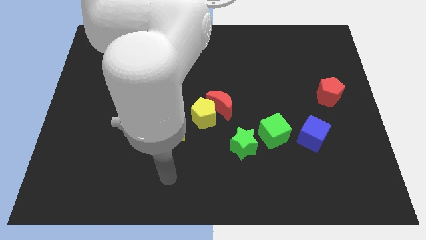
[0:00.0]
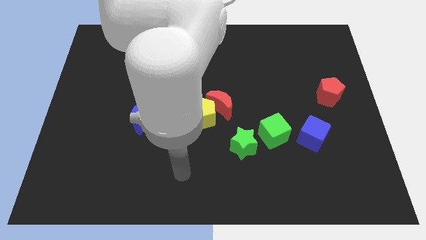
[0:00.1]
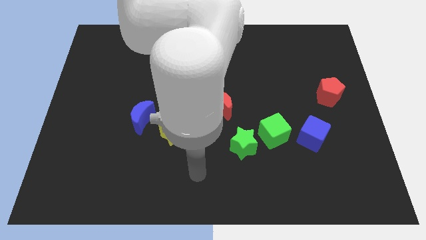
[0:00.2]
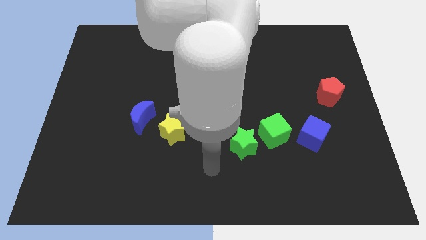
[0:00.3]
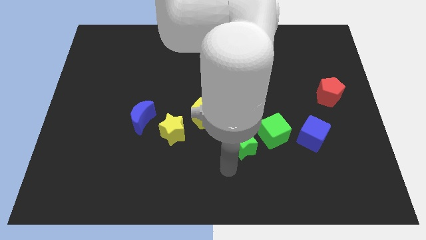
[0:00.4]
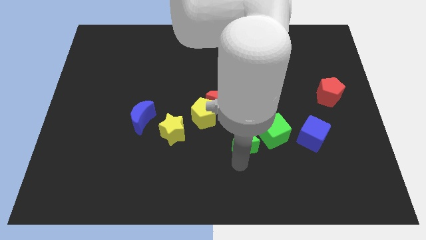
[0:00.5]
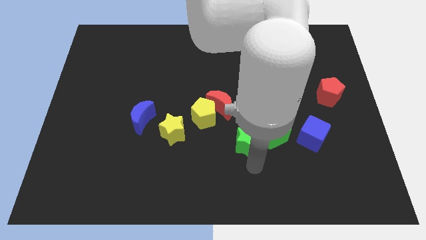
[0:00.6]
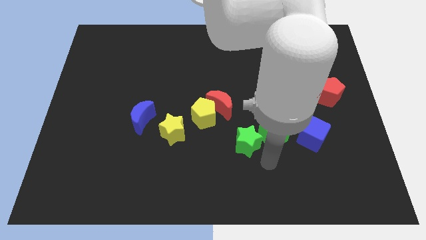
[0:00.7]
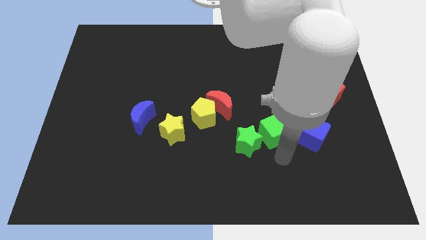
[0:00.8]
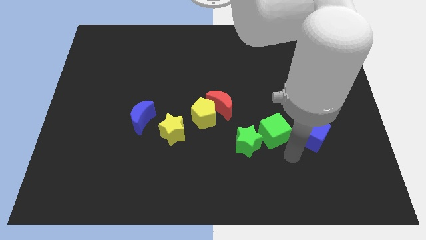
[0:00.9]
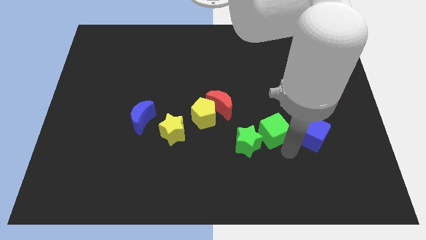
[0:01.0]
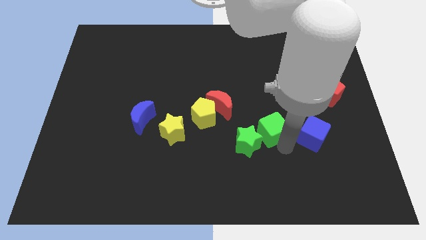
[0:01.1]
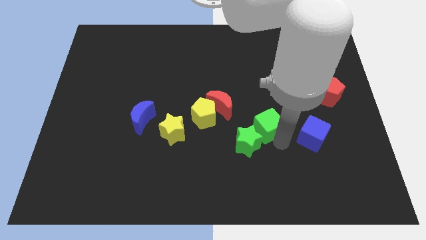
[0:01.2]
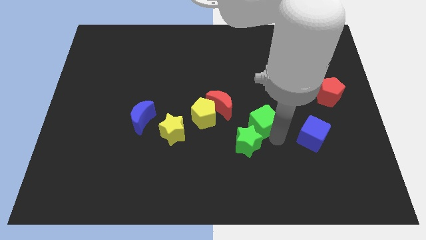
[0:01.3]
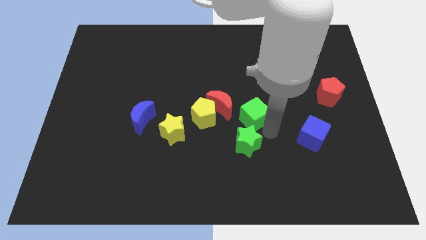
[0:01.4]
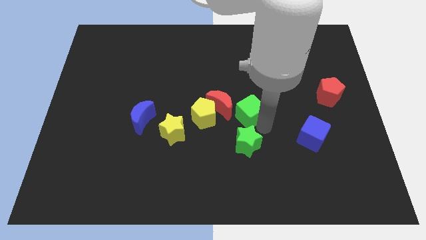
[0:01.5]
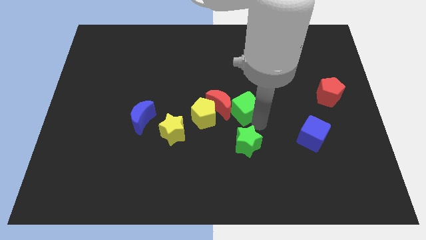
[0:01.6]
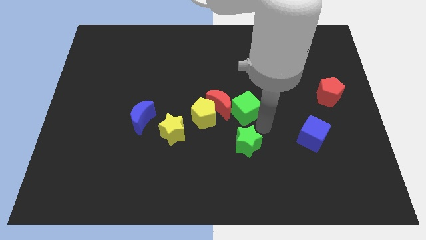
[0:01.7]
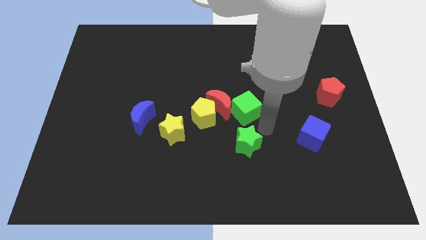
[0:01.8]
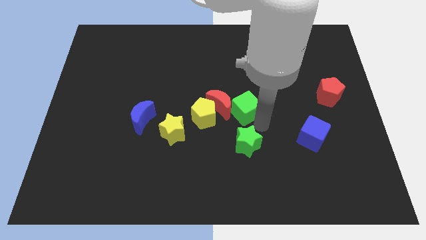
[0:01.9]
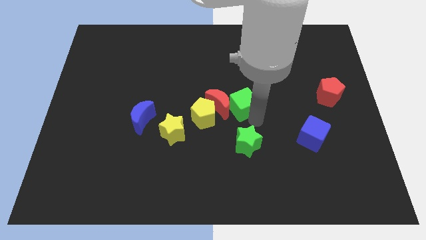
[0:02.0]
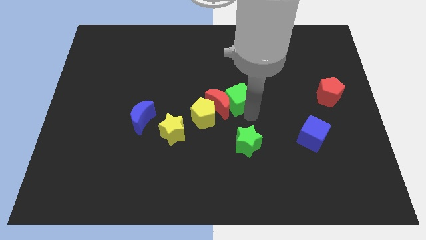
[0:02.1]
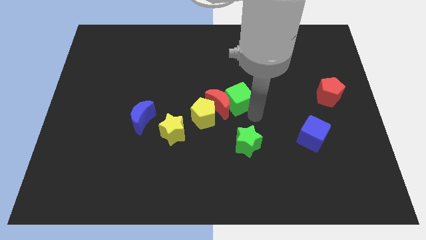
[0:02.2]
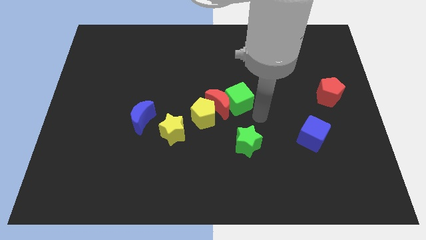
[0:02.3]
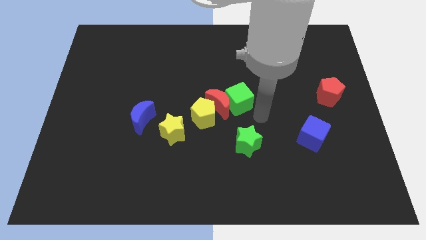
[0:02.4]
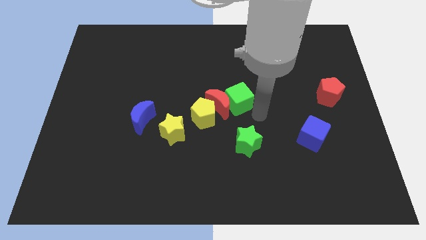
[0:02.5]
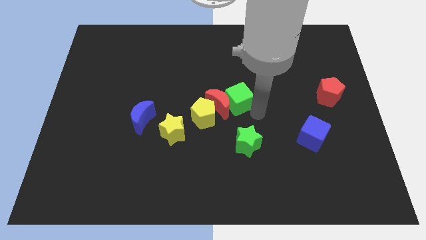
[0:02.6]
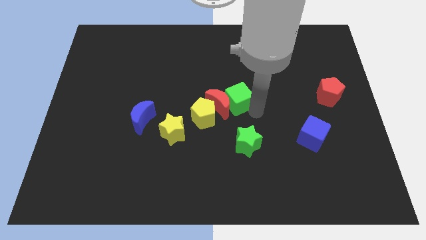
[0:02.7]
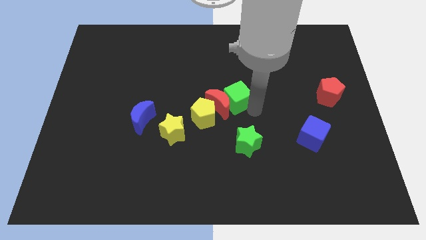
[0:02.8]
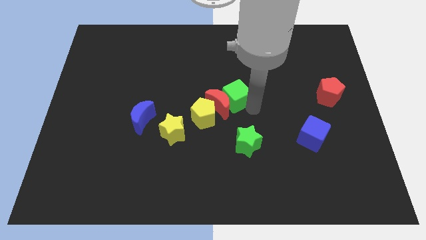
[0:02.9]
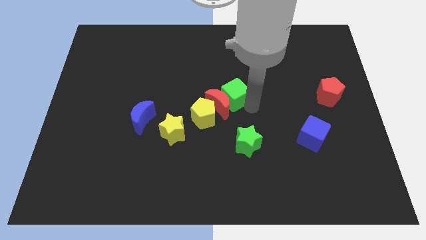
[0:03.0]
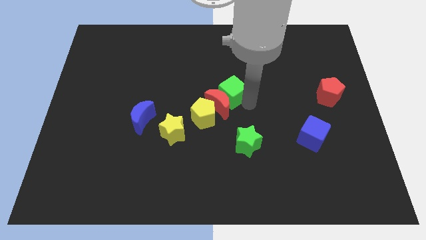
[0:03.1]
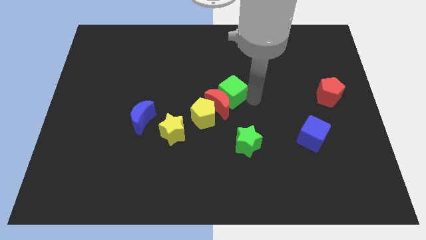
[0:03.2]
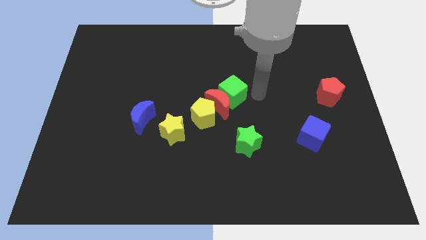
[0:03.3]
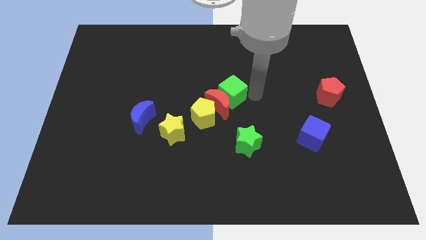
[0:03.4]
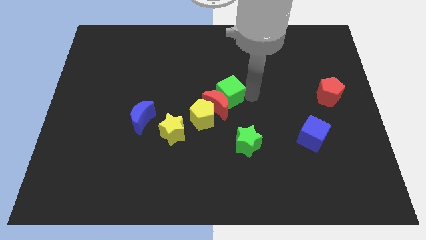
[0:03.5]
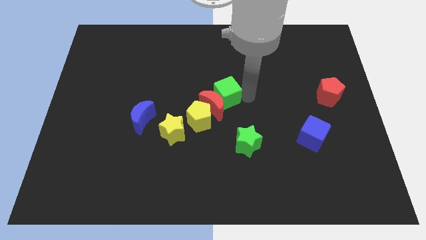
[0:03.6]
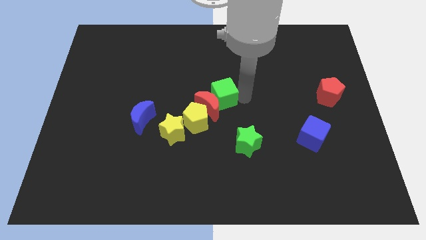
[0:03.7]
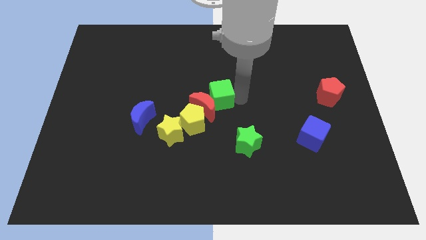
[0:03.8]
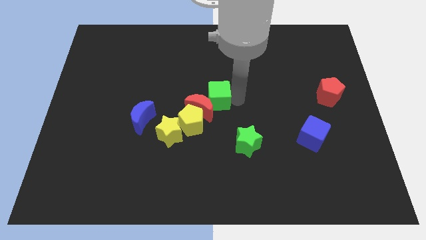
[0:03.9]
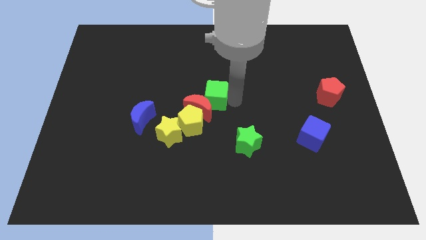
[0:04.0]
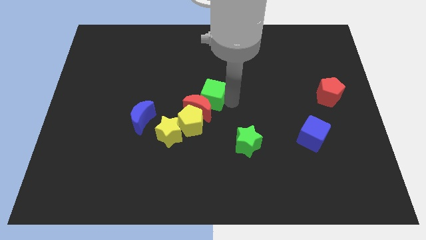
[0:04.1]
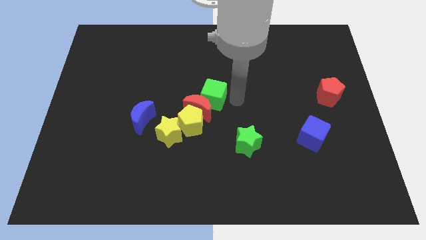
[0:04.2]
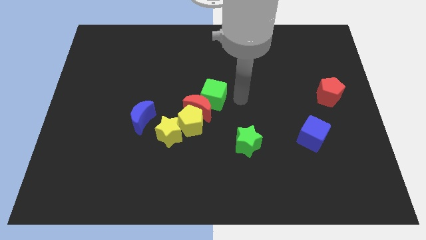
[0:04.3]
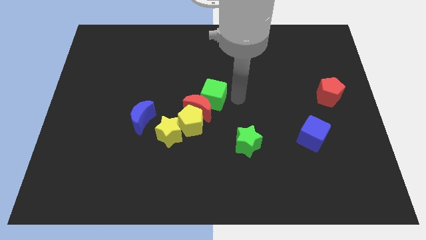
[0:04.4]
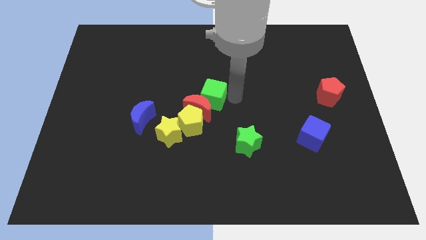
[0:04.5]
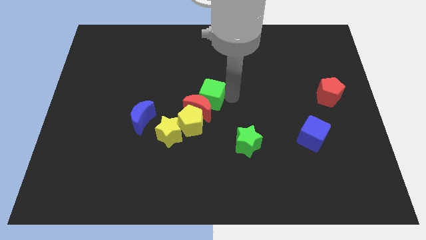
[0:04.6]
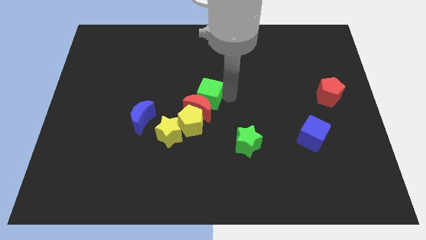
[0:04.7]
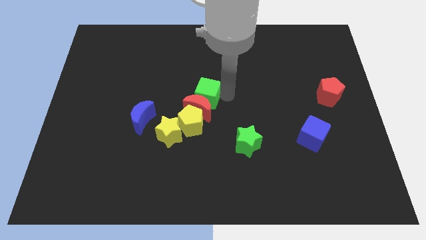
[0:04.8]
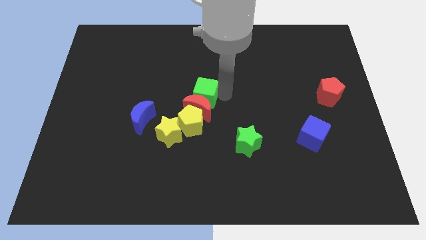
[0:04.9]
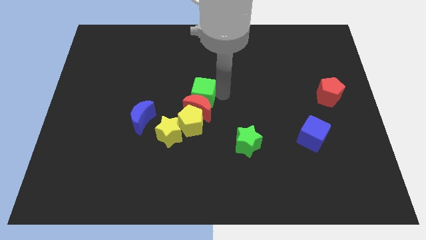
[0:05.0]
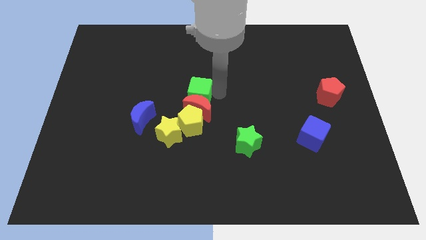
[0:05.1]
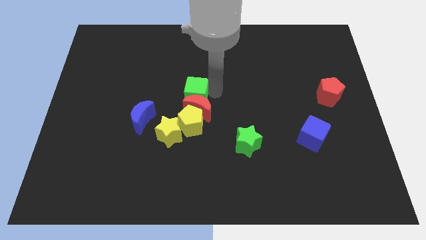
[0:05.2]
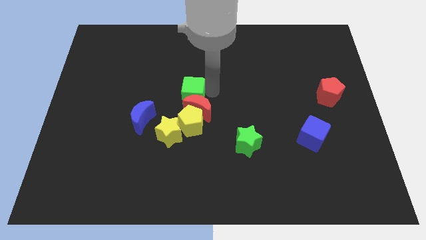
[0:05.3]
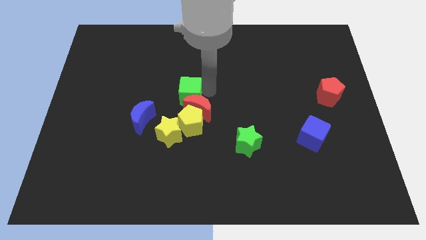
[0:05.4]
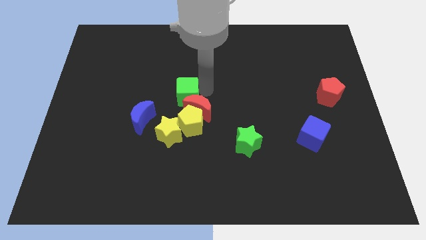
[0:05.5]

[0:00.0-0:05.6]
put the green cube diagonally up and to the right of the blue moon

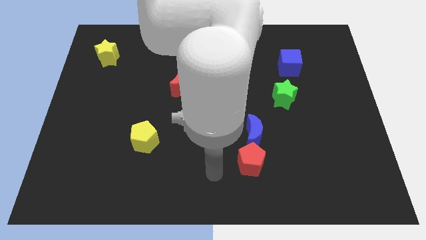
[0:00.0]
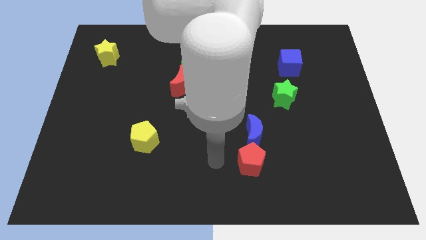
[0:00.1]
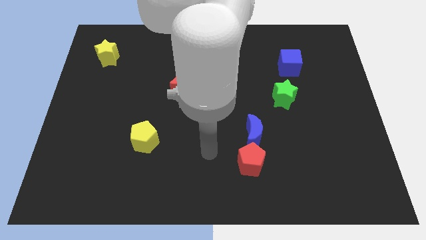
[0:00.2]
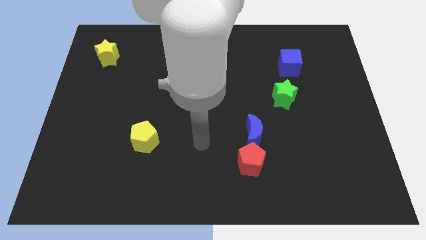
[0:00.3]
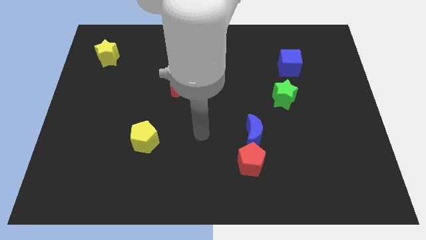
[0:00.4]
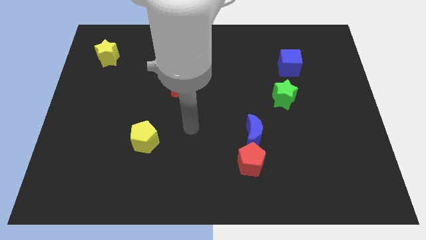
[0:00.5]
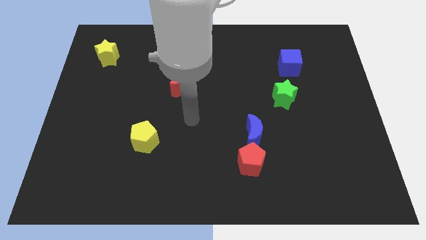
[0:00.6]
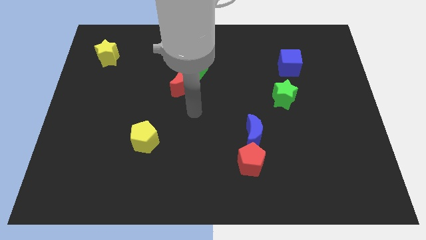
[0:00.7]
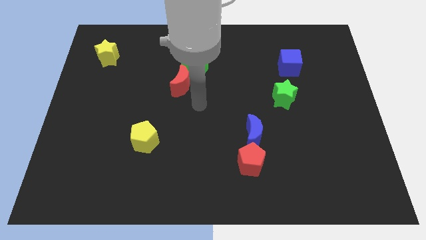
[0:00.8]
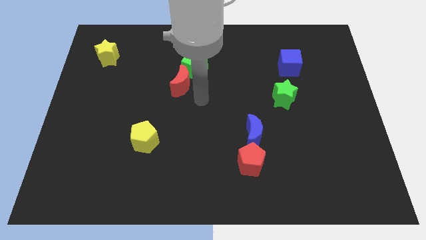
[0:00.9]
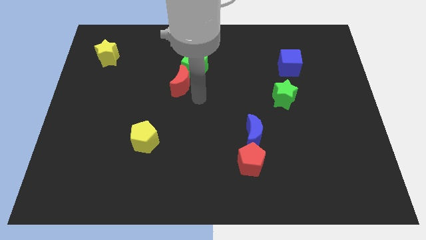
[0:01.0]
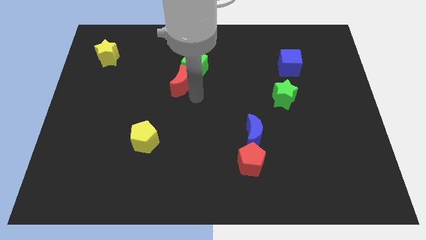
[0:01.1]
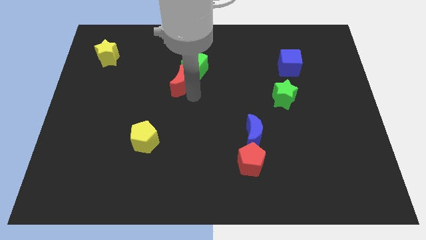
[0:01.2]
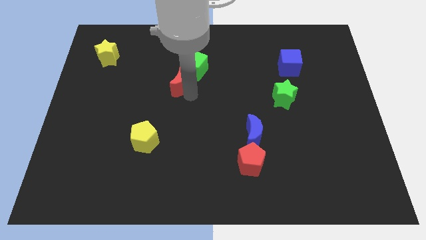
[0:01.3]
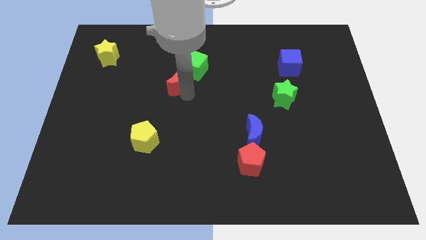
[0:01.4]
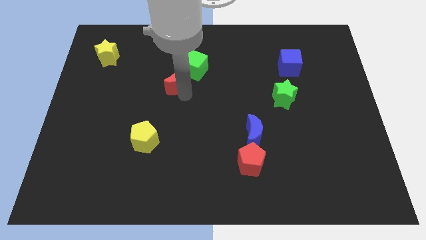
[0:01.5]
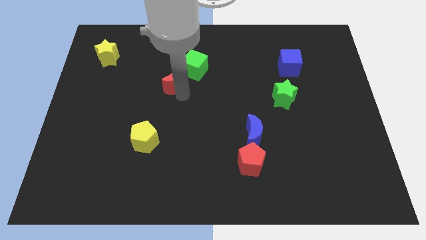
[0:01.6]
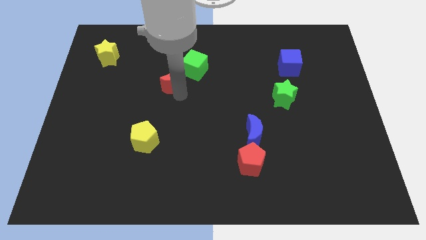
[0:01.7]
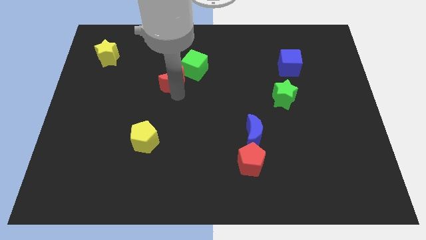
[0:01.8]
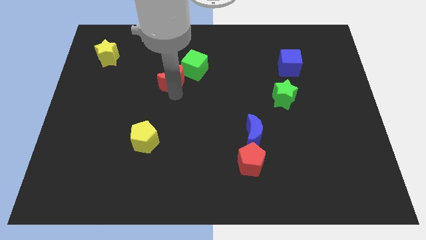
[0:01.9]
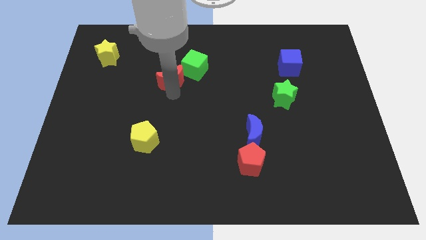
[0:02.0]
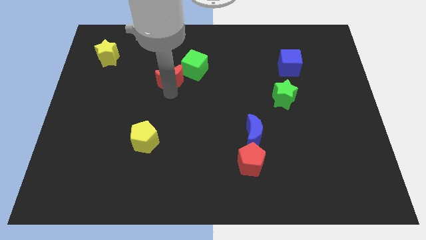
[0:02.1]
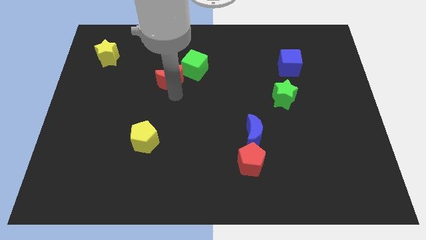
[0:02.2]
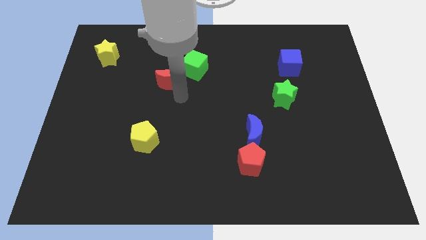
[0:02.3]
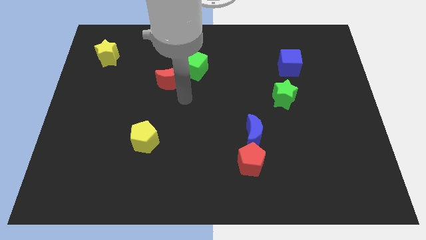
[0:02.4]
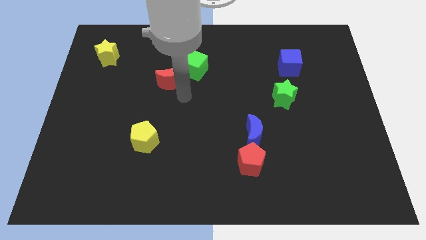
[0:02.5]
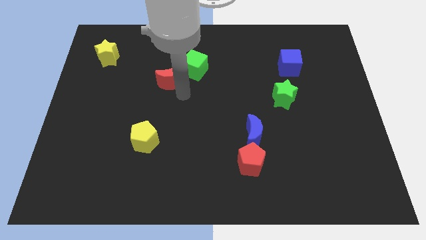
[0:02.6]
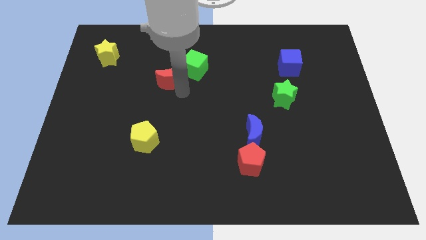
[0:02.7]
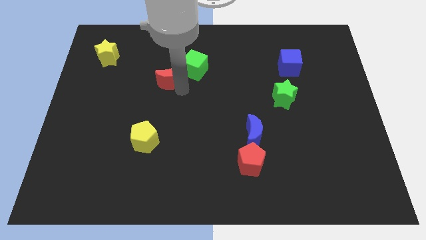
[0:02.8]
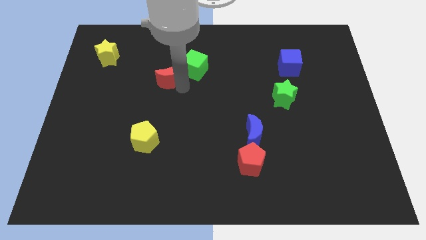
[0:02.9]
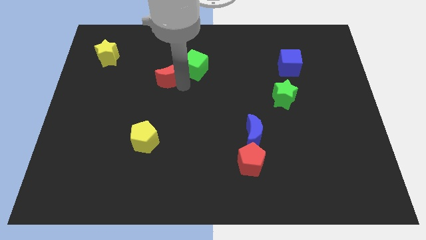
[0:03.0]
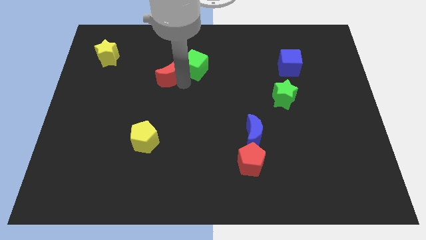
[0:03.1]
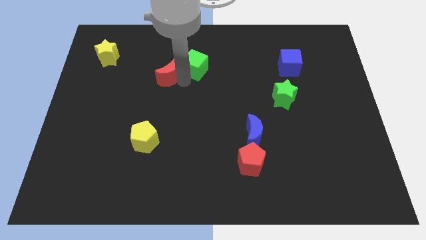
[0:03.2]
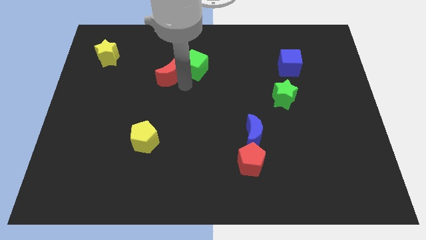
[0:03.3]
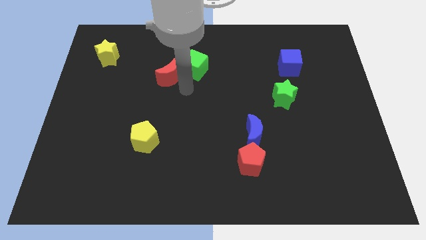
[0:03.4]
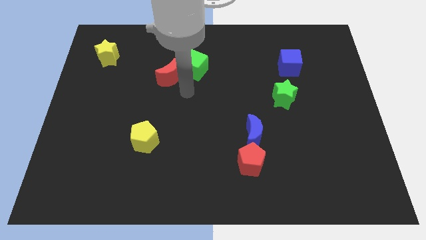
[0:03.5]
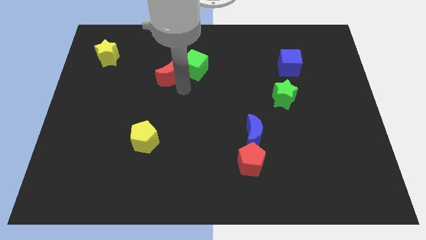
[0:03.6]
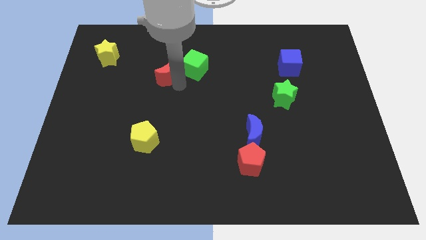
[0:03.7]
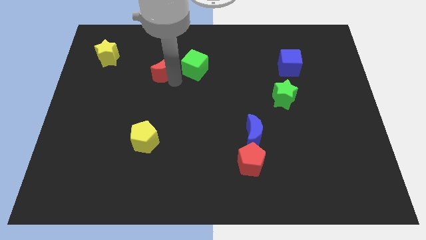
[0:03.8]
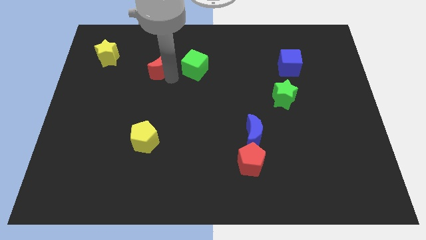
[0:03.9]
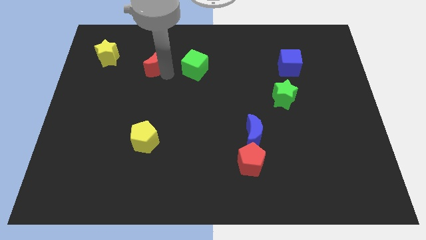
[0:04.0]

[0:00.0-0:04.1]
move the red moon to the right side of the yellow star
